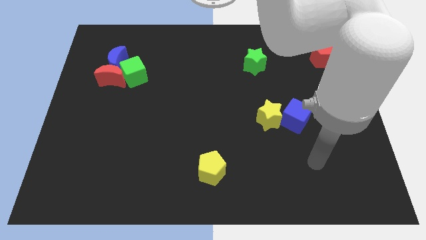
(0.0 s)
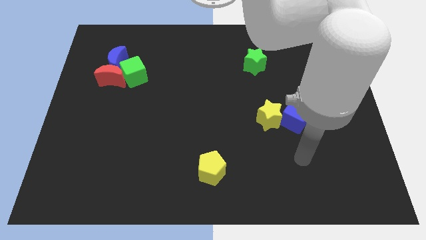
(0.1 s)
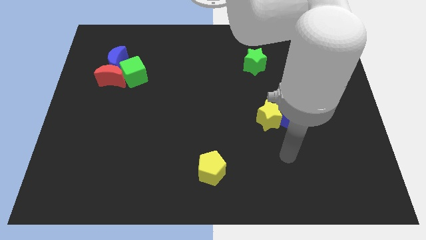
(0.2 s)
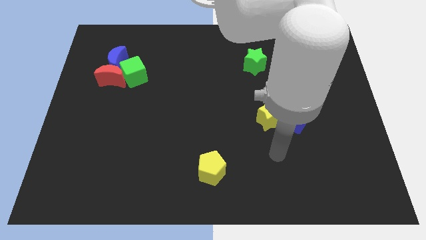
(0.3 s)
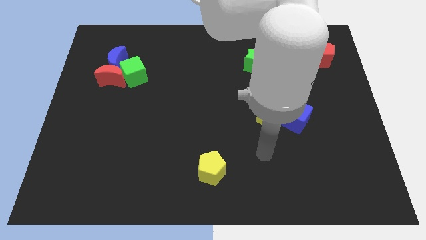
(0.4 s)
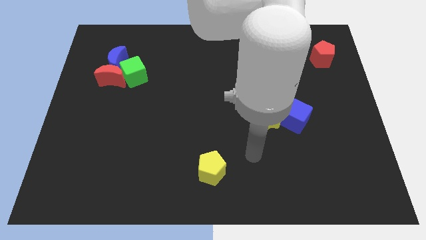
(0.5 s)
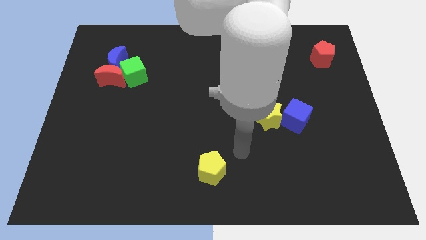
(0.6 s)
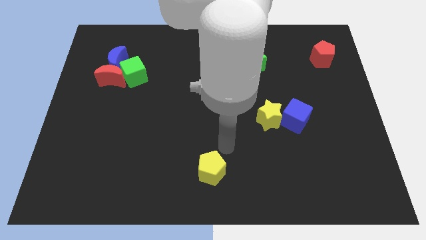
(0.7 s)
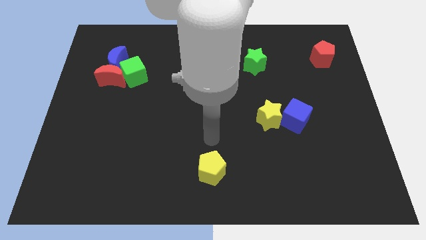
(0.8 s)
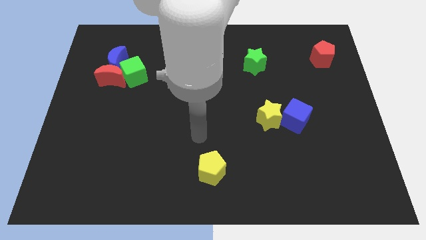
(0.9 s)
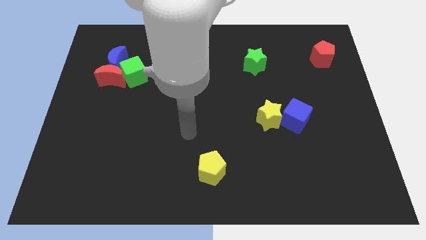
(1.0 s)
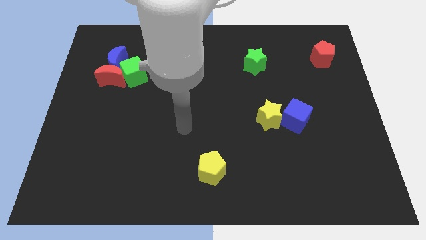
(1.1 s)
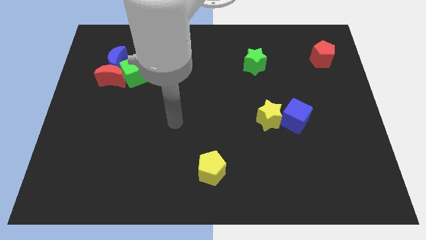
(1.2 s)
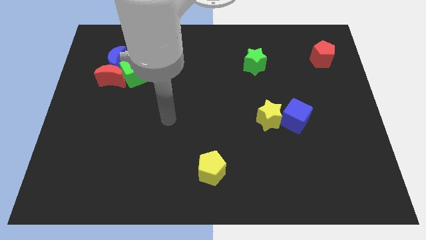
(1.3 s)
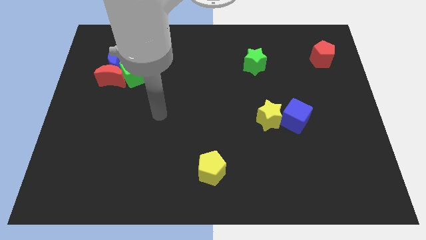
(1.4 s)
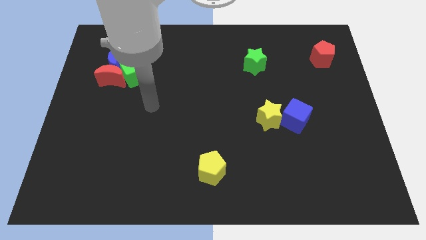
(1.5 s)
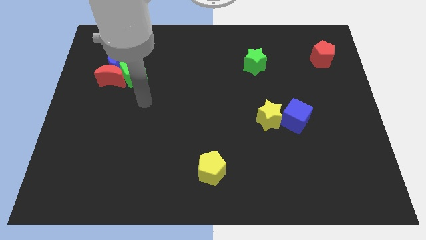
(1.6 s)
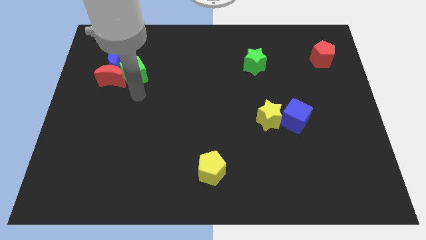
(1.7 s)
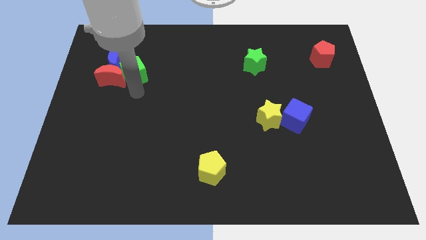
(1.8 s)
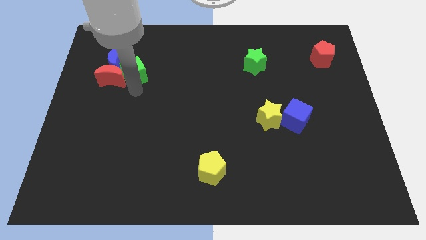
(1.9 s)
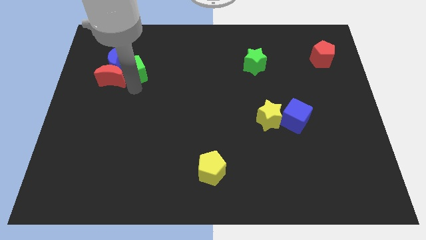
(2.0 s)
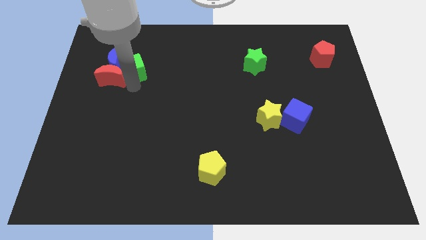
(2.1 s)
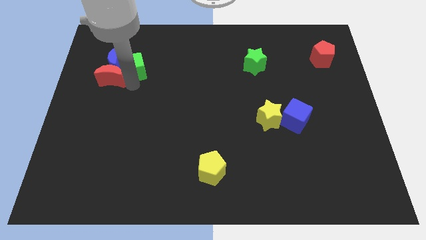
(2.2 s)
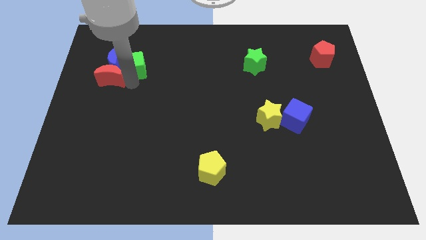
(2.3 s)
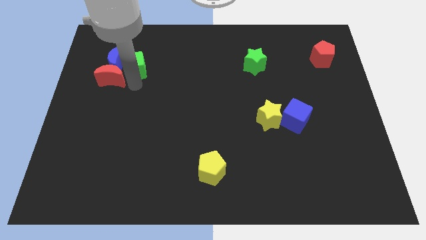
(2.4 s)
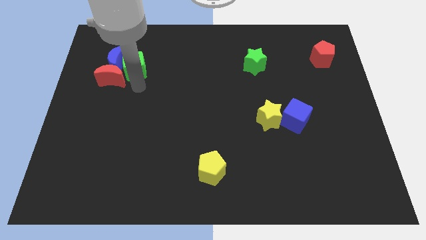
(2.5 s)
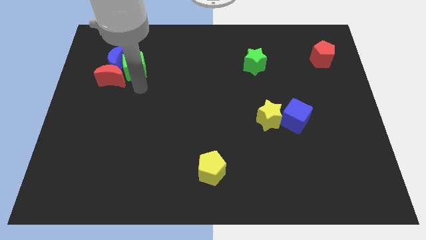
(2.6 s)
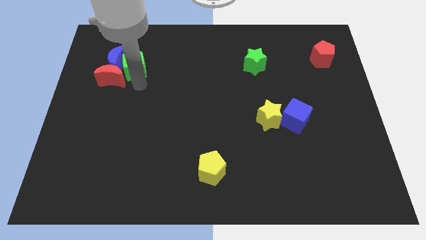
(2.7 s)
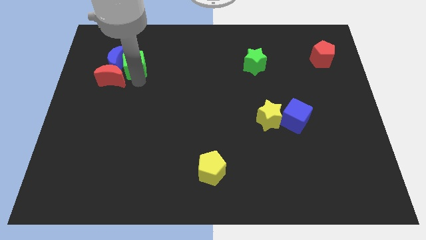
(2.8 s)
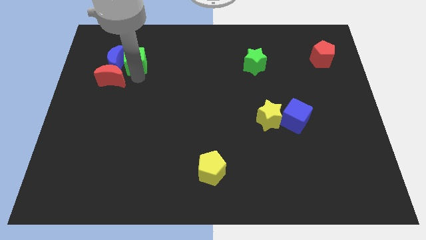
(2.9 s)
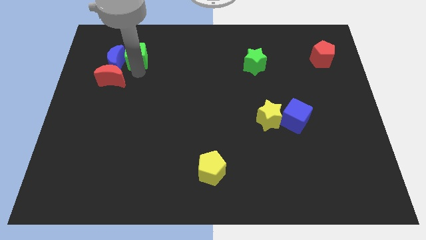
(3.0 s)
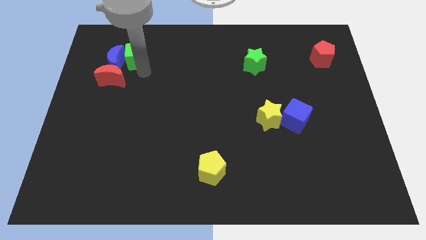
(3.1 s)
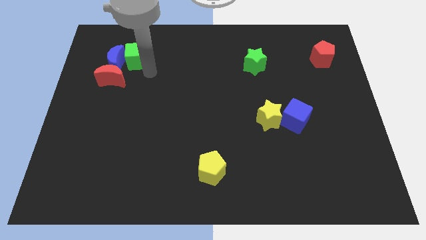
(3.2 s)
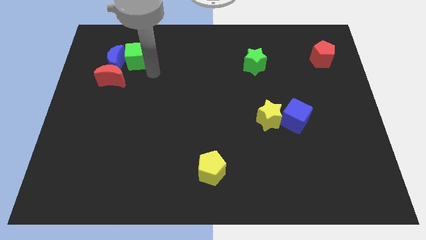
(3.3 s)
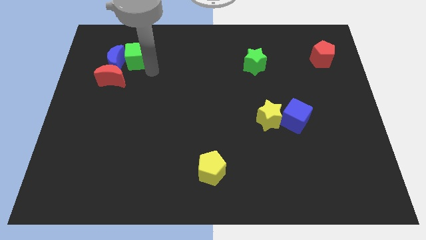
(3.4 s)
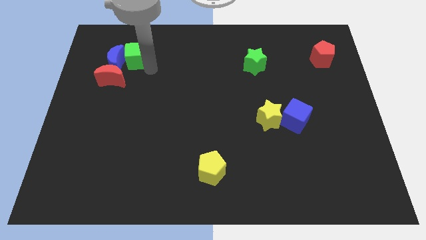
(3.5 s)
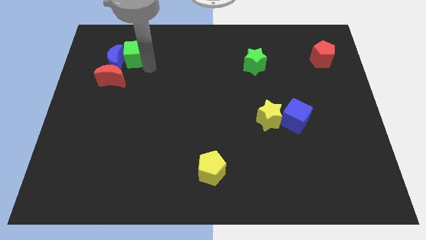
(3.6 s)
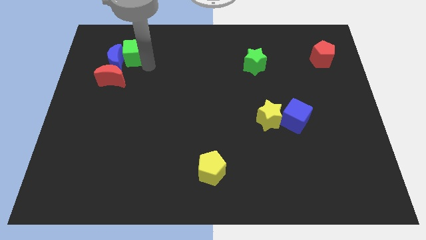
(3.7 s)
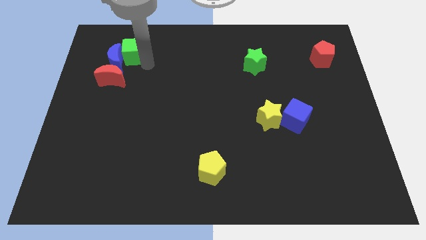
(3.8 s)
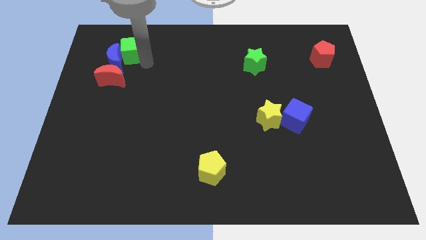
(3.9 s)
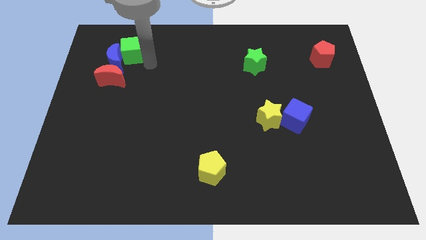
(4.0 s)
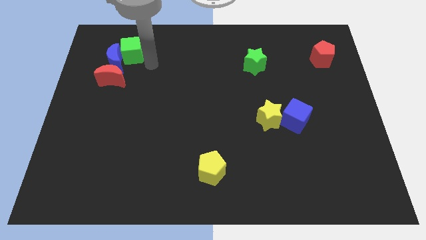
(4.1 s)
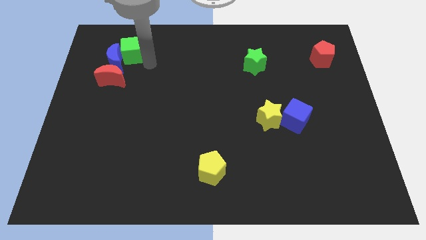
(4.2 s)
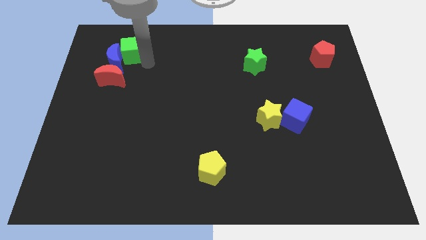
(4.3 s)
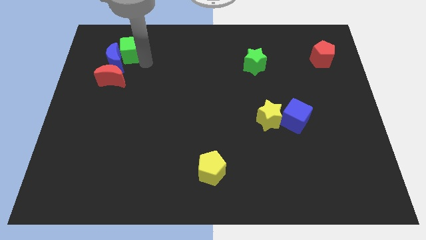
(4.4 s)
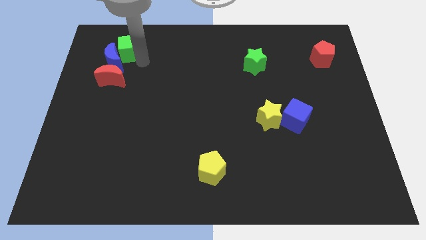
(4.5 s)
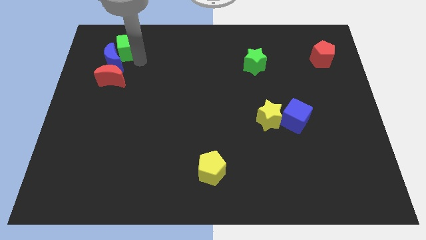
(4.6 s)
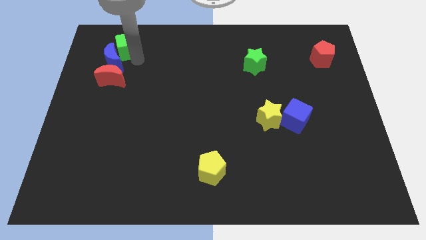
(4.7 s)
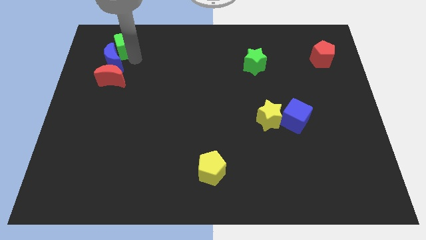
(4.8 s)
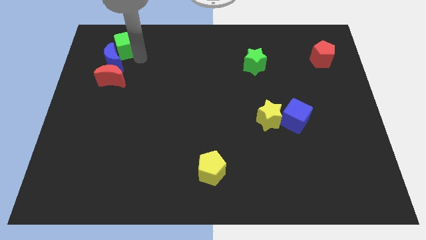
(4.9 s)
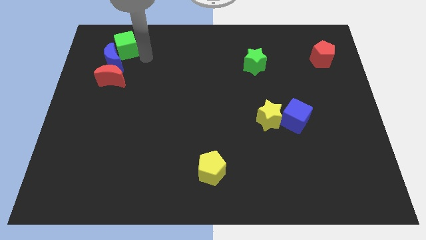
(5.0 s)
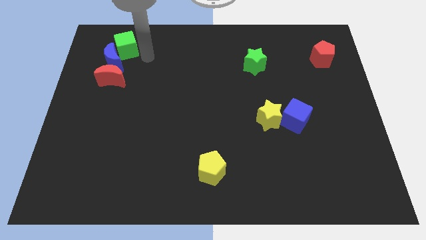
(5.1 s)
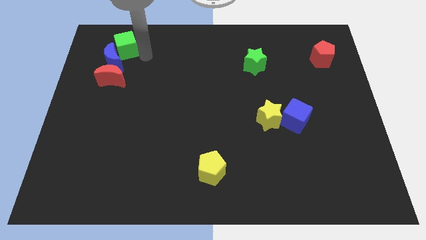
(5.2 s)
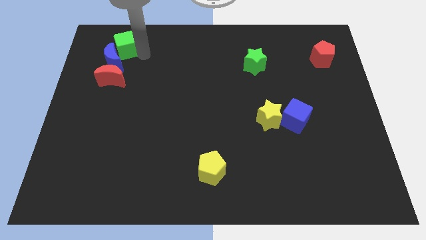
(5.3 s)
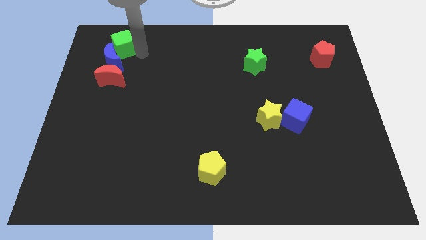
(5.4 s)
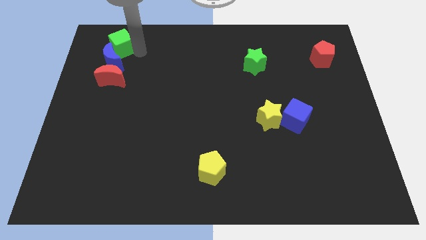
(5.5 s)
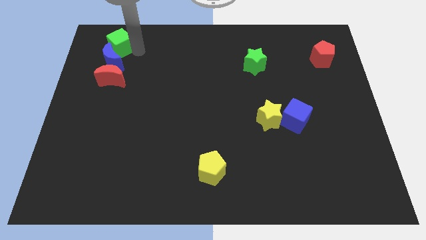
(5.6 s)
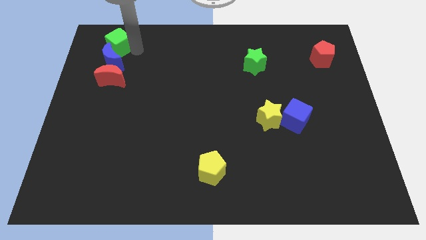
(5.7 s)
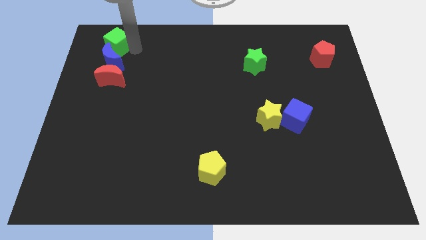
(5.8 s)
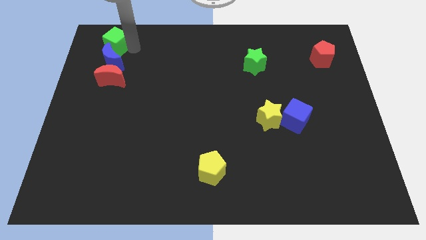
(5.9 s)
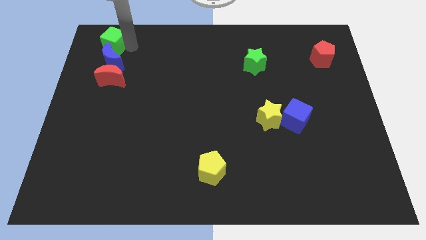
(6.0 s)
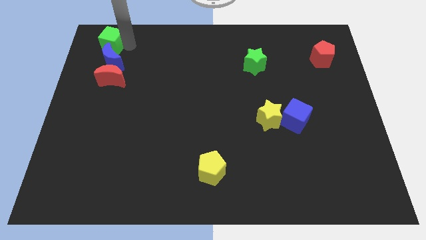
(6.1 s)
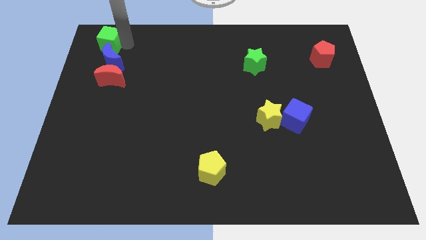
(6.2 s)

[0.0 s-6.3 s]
slide the green cube to the top left corner
